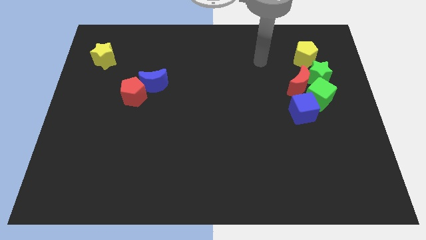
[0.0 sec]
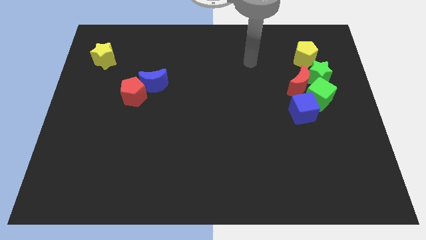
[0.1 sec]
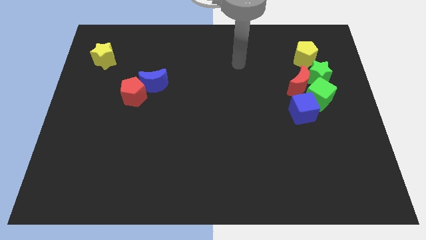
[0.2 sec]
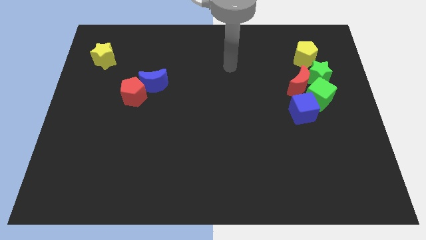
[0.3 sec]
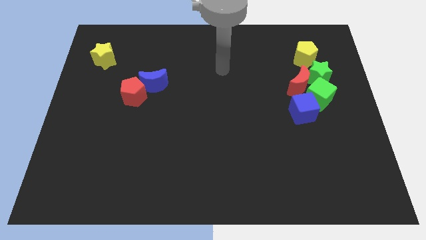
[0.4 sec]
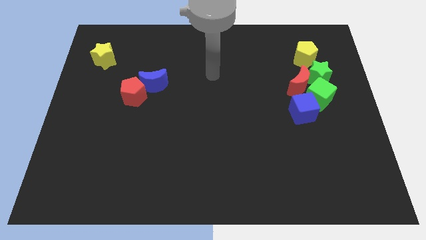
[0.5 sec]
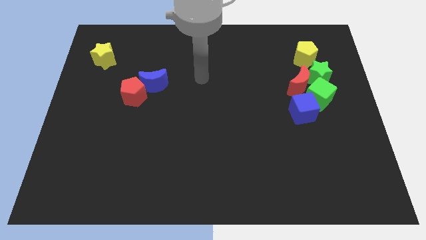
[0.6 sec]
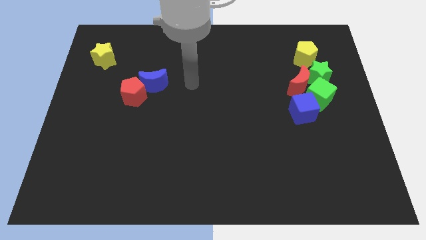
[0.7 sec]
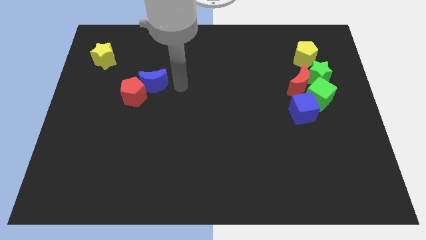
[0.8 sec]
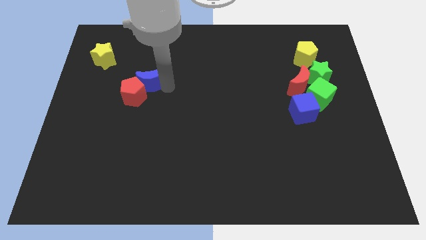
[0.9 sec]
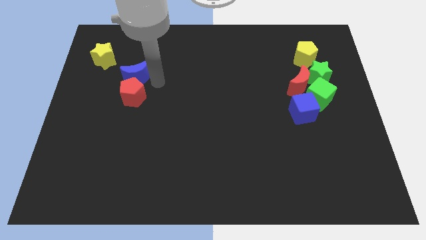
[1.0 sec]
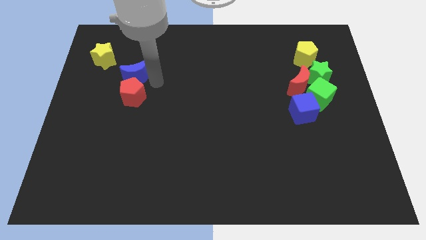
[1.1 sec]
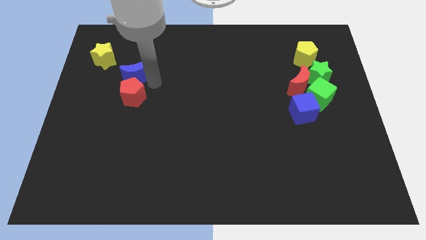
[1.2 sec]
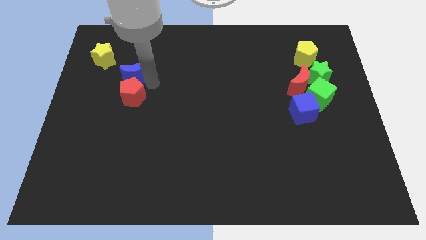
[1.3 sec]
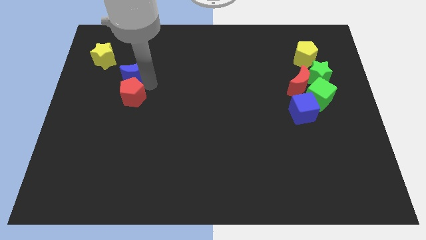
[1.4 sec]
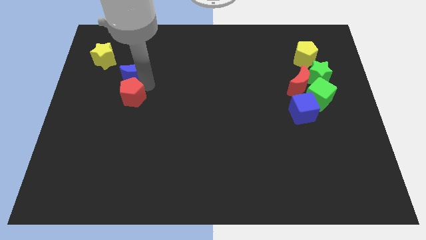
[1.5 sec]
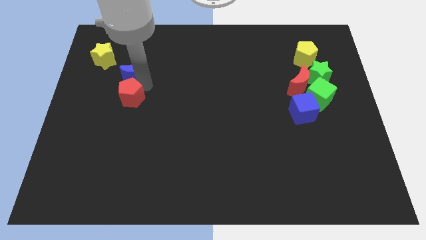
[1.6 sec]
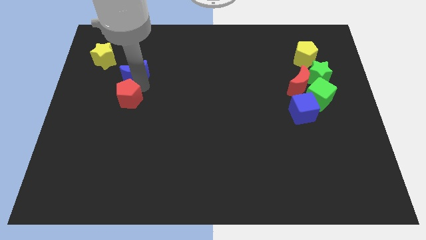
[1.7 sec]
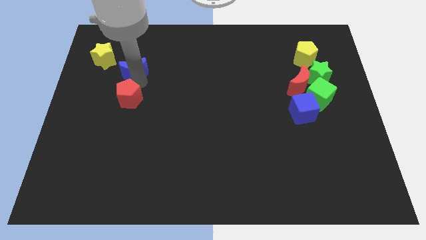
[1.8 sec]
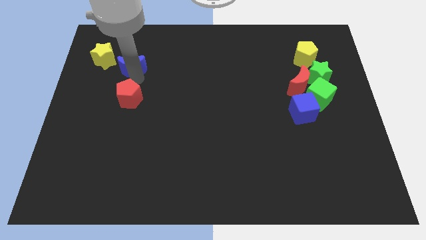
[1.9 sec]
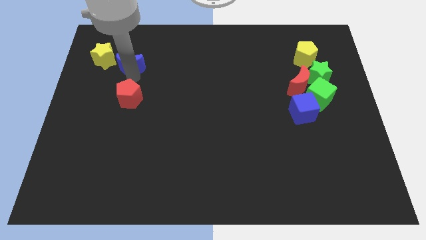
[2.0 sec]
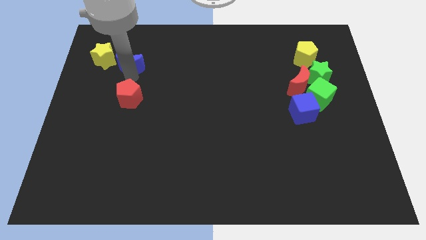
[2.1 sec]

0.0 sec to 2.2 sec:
move the red pentagon away from the blue moon

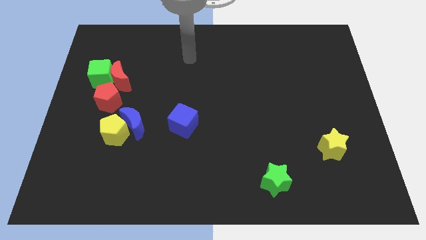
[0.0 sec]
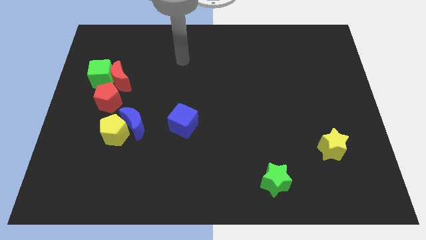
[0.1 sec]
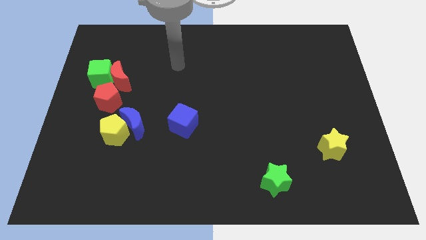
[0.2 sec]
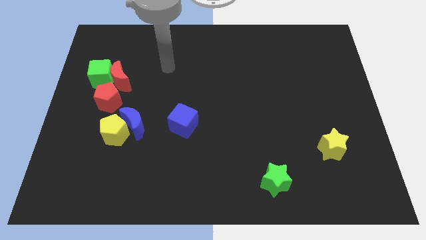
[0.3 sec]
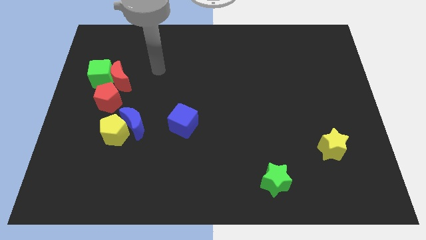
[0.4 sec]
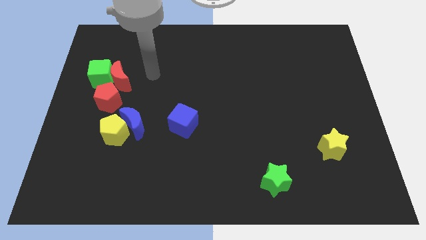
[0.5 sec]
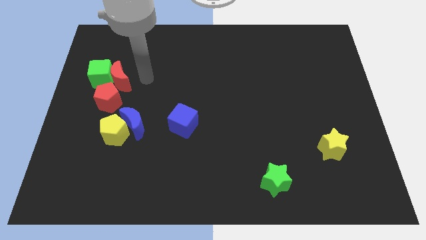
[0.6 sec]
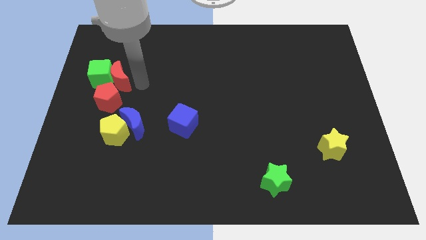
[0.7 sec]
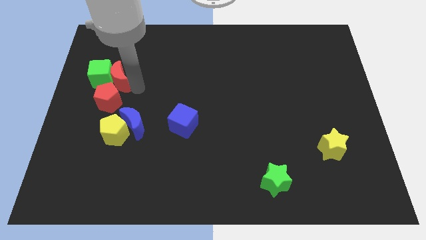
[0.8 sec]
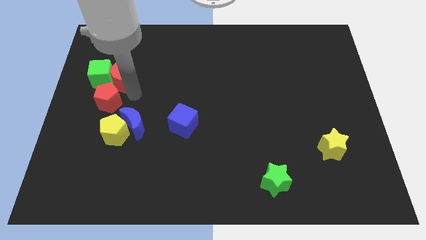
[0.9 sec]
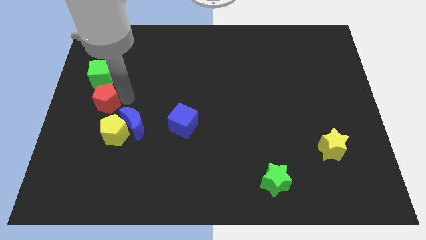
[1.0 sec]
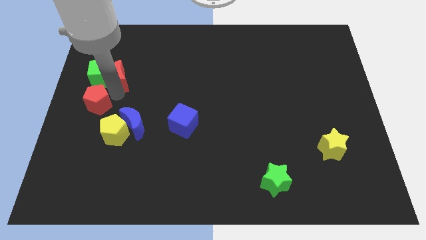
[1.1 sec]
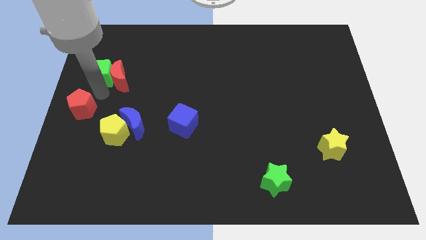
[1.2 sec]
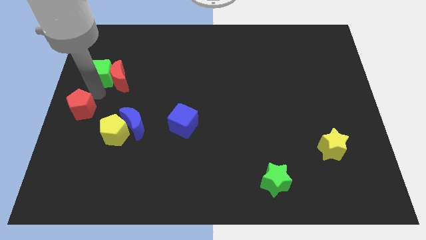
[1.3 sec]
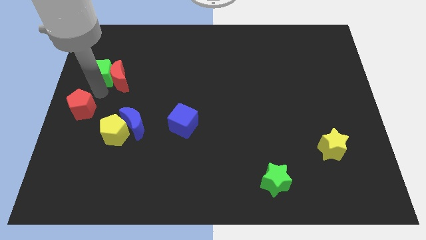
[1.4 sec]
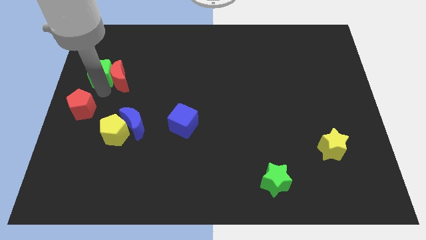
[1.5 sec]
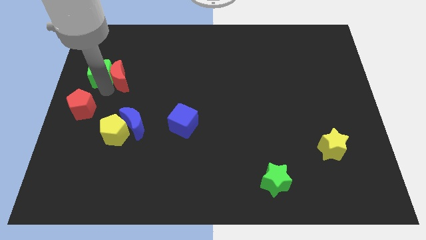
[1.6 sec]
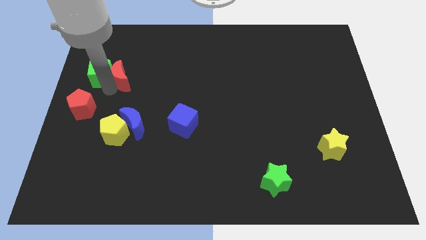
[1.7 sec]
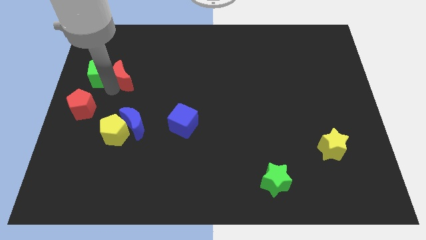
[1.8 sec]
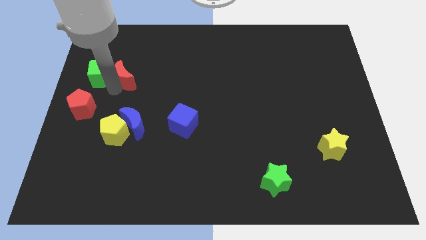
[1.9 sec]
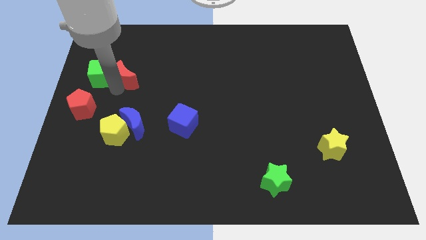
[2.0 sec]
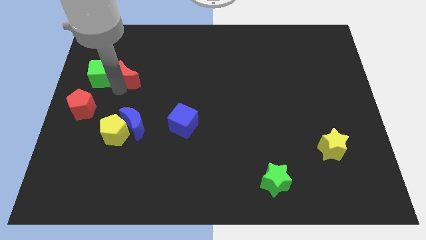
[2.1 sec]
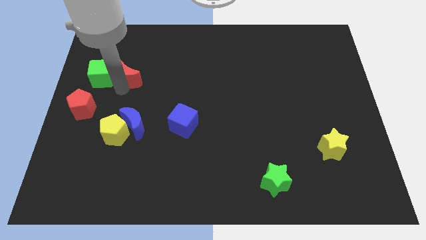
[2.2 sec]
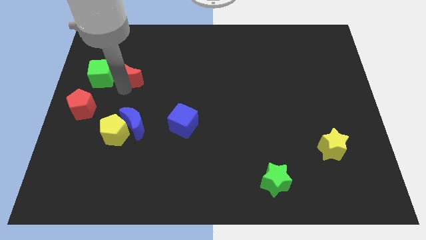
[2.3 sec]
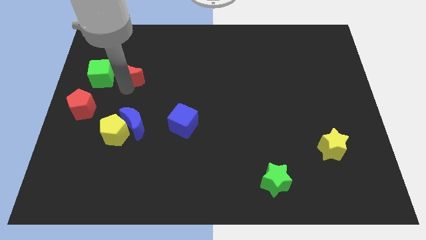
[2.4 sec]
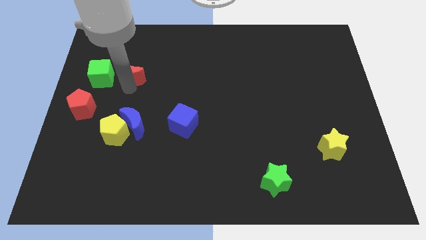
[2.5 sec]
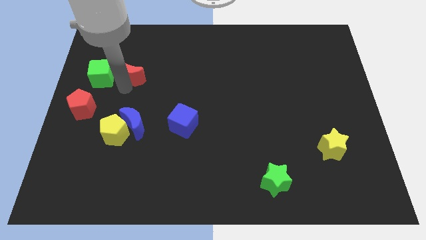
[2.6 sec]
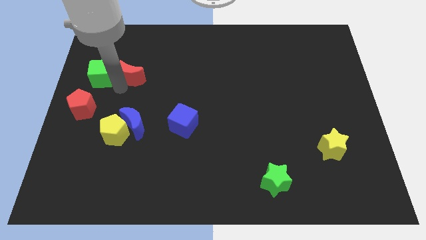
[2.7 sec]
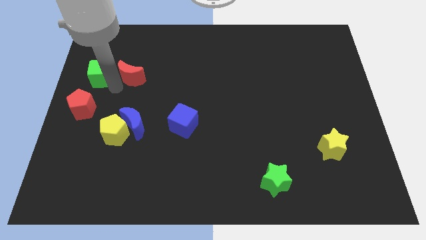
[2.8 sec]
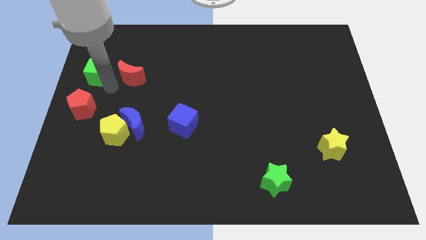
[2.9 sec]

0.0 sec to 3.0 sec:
separate the red moon from the green cube and red pentagon

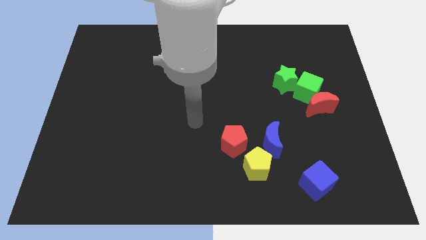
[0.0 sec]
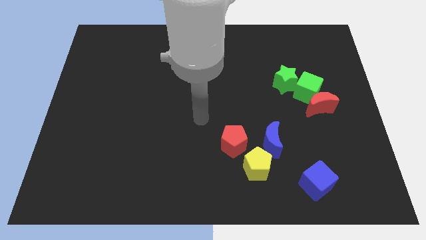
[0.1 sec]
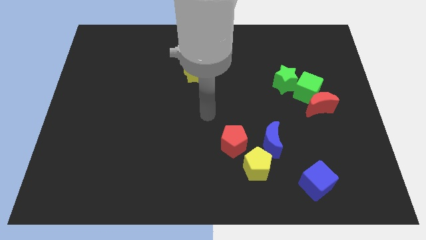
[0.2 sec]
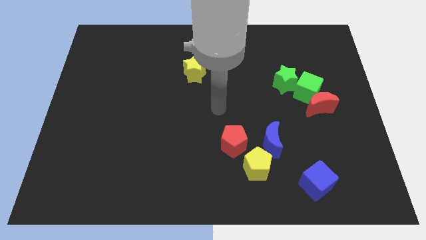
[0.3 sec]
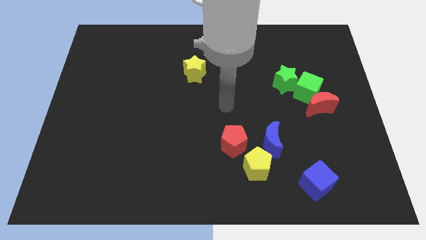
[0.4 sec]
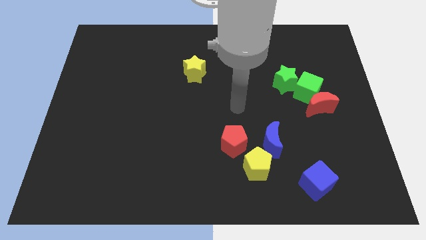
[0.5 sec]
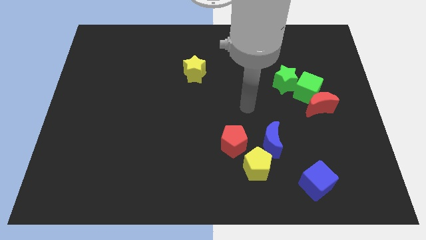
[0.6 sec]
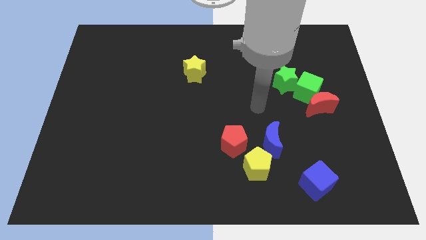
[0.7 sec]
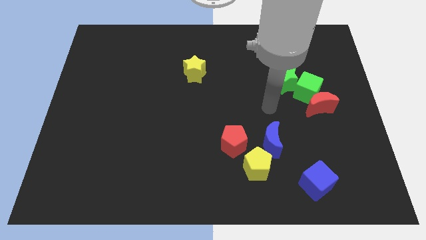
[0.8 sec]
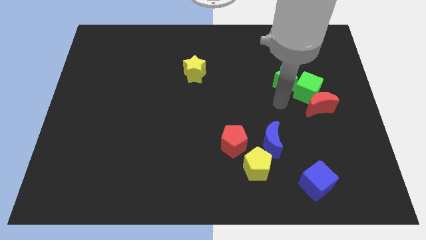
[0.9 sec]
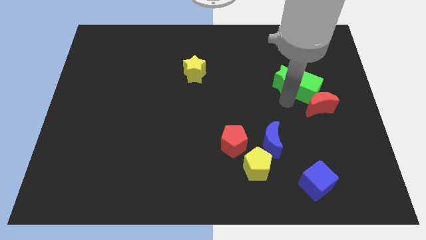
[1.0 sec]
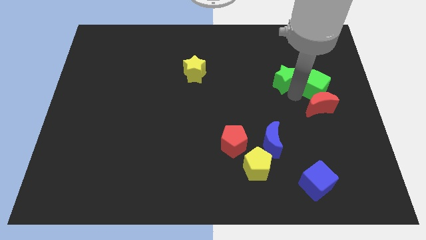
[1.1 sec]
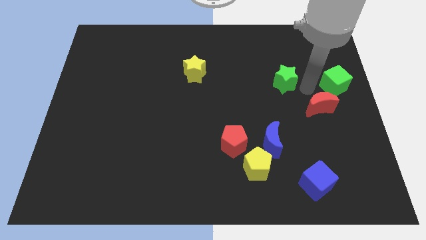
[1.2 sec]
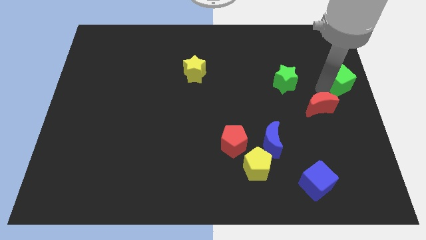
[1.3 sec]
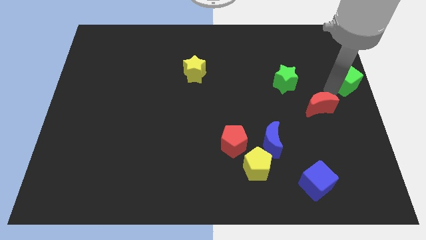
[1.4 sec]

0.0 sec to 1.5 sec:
separate the red moon from the green cube

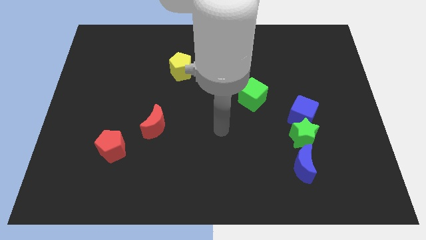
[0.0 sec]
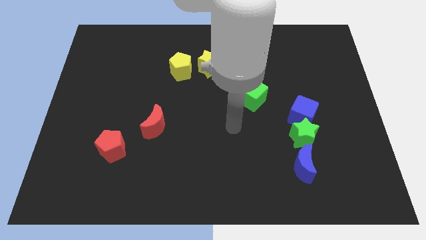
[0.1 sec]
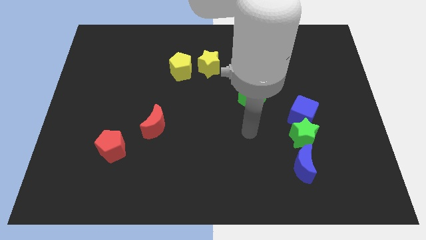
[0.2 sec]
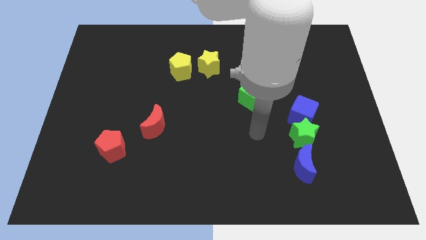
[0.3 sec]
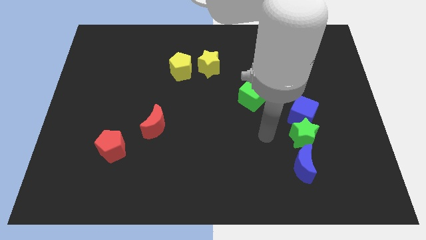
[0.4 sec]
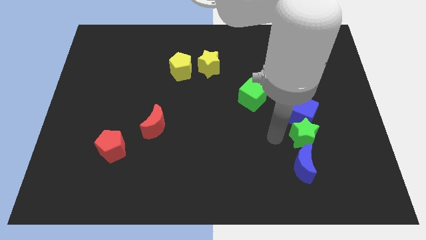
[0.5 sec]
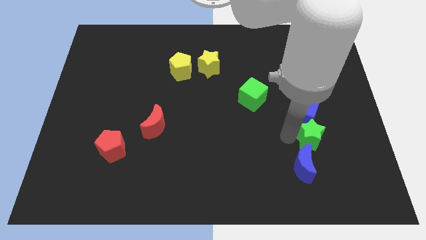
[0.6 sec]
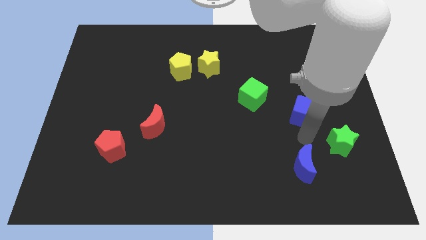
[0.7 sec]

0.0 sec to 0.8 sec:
separate the blue cube from the green star

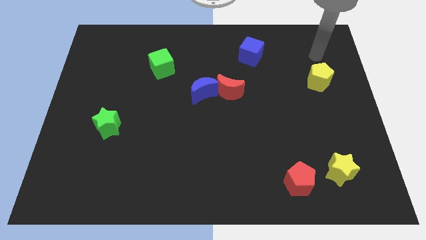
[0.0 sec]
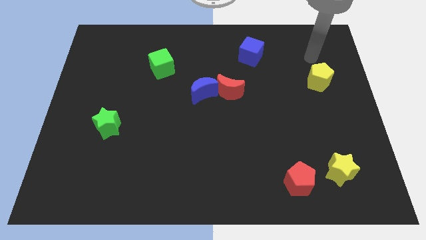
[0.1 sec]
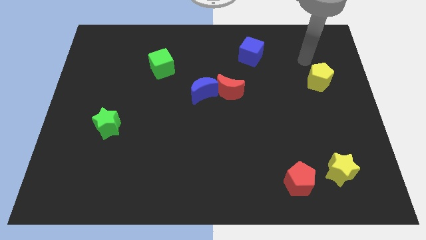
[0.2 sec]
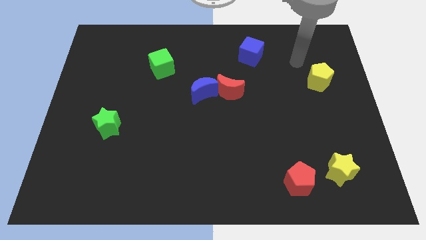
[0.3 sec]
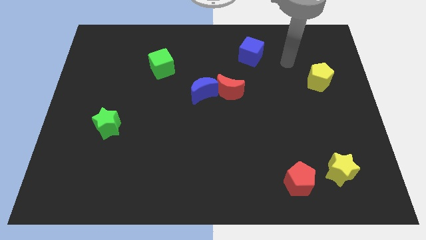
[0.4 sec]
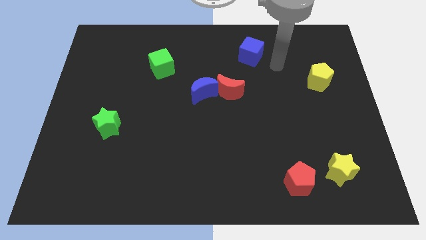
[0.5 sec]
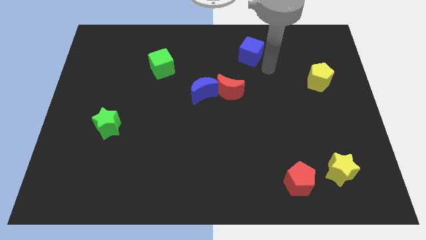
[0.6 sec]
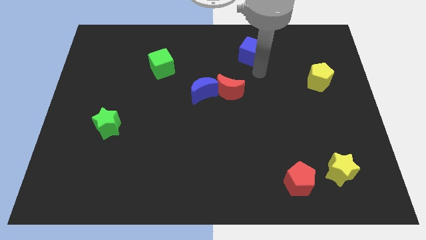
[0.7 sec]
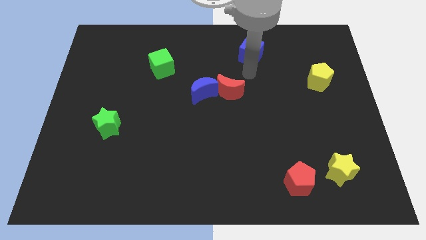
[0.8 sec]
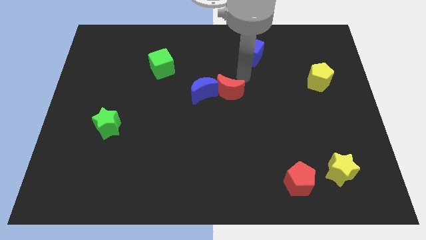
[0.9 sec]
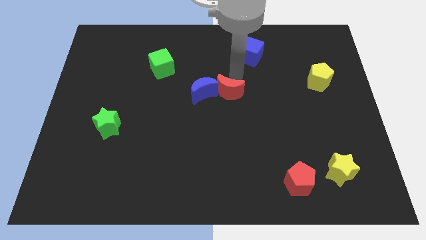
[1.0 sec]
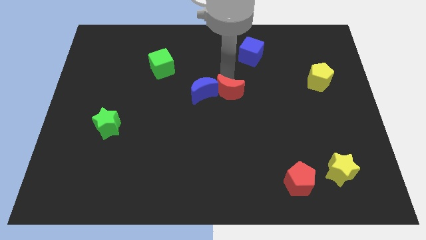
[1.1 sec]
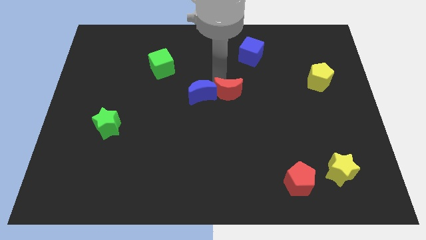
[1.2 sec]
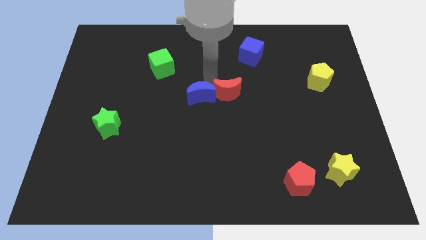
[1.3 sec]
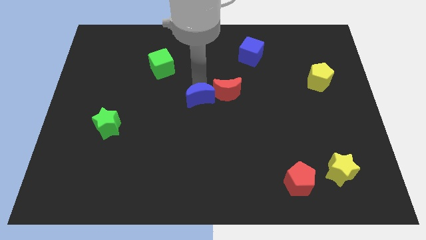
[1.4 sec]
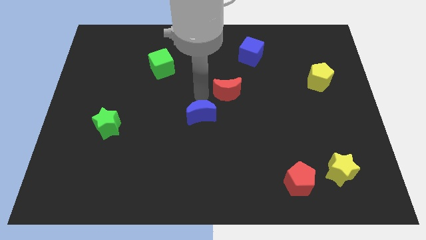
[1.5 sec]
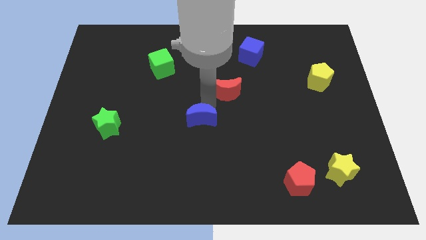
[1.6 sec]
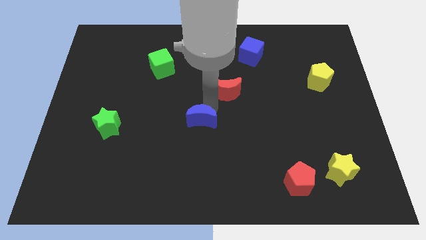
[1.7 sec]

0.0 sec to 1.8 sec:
move the red moon away from the blue moon

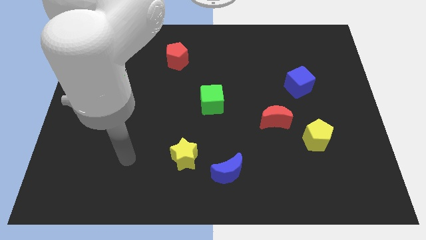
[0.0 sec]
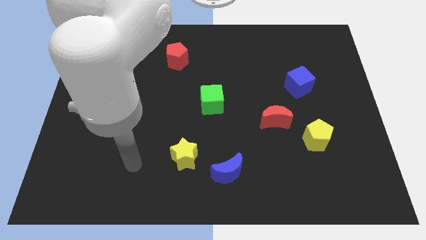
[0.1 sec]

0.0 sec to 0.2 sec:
pull the red moon apart from the yellow pentagon
